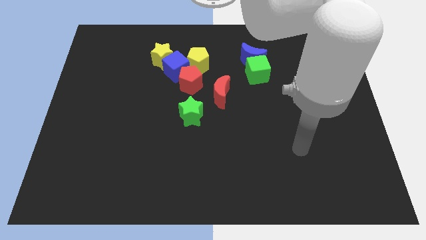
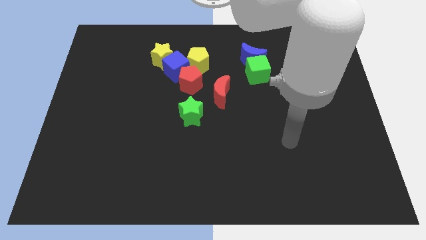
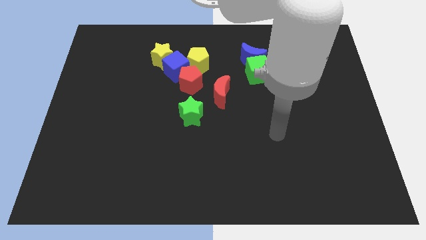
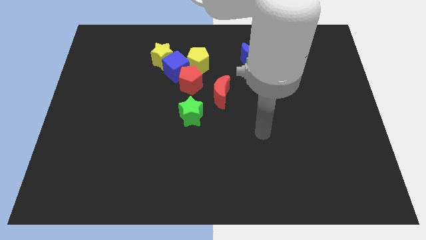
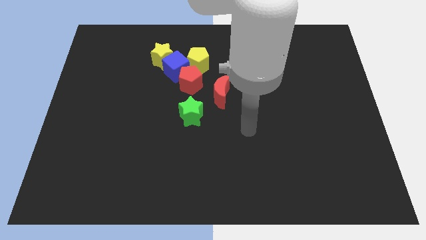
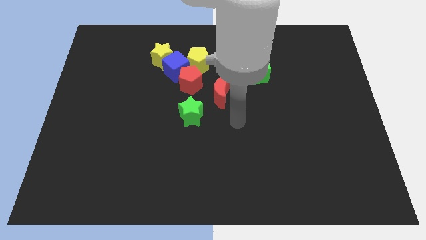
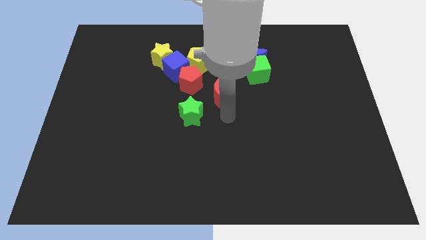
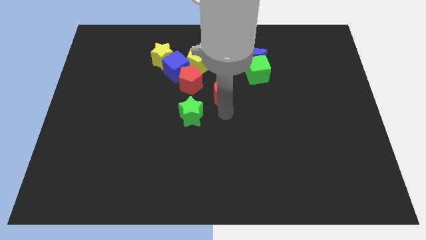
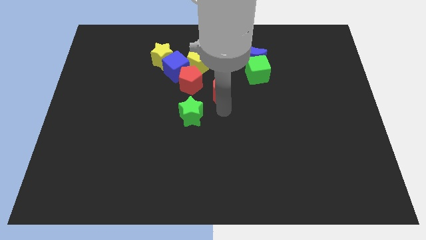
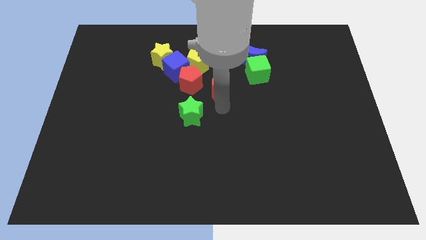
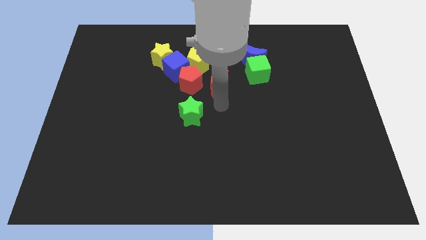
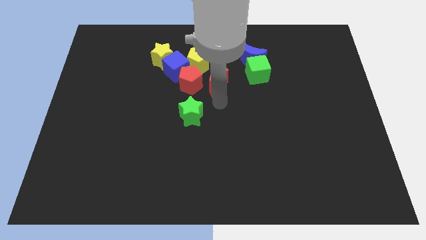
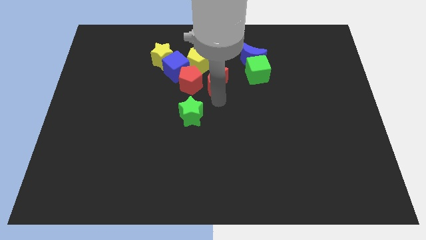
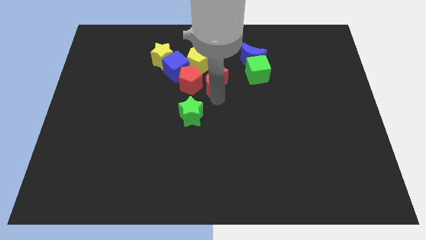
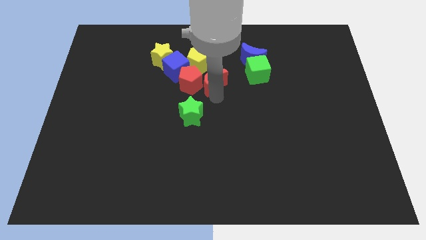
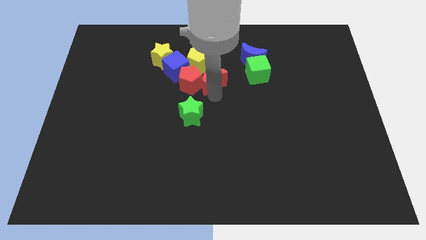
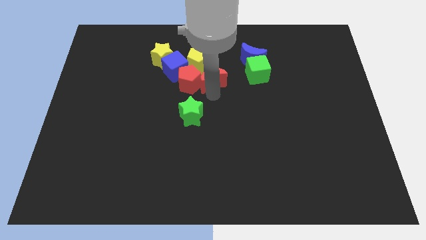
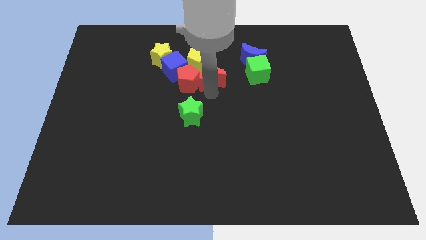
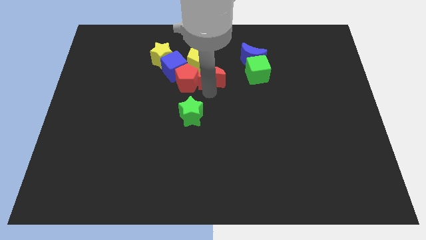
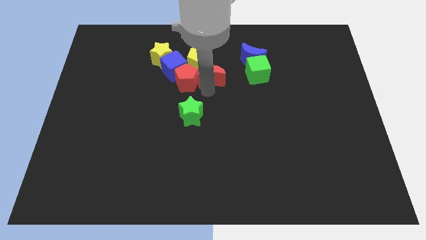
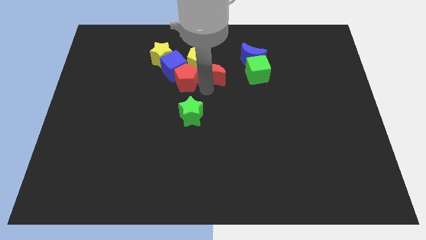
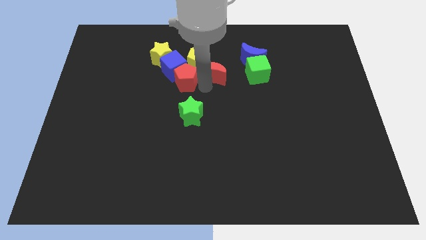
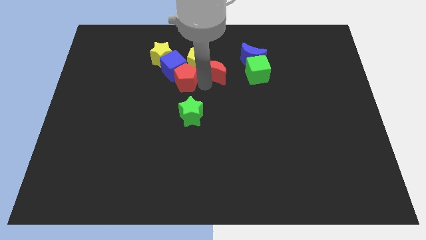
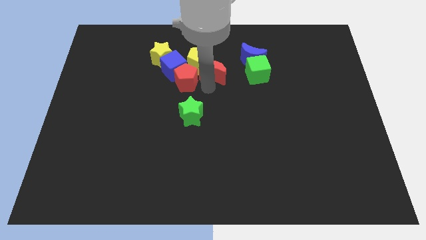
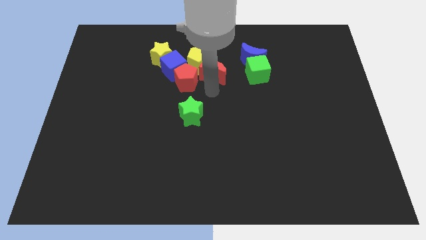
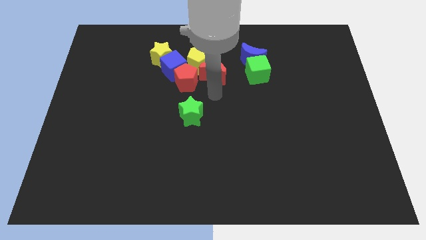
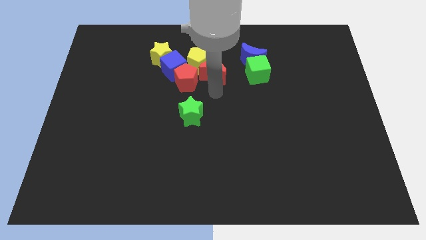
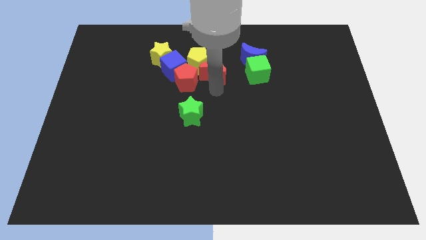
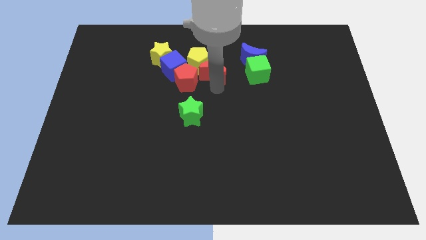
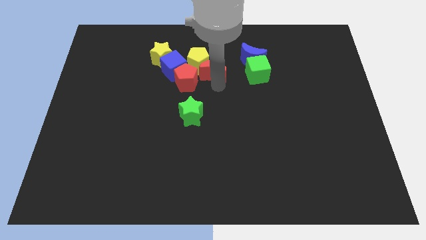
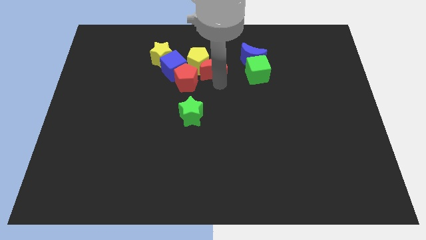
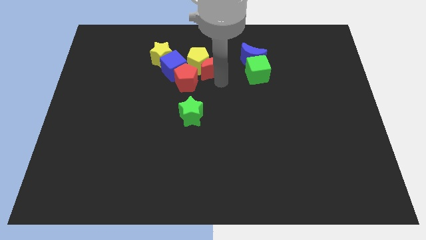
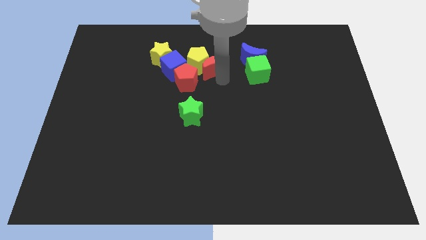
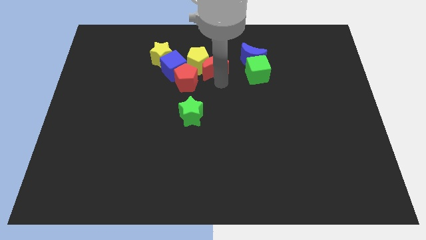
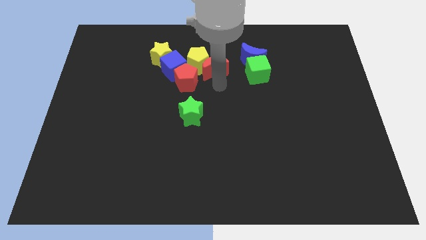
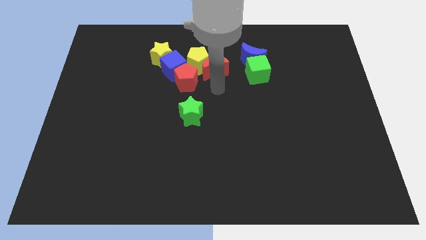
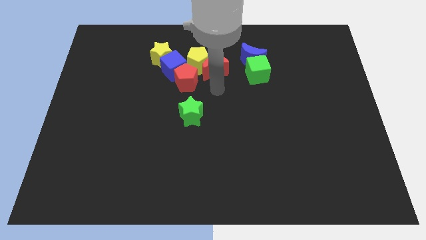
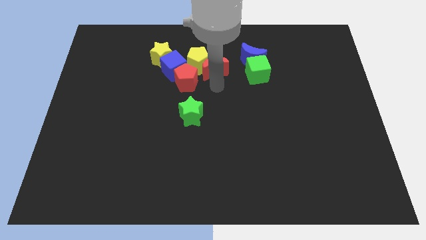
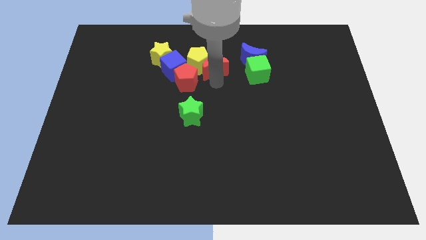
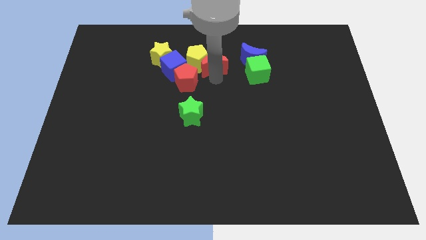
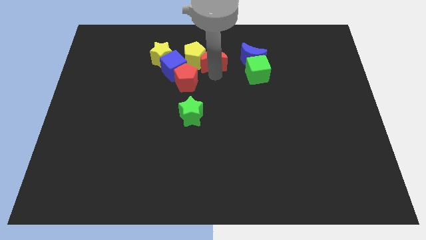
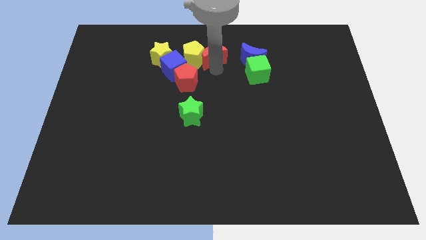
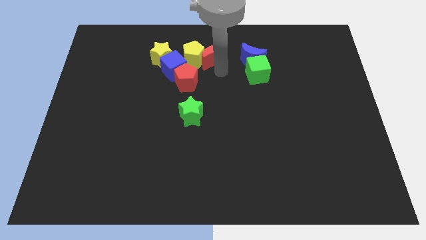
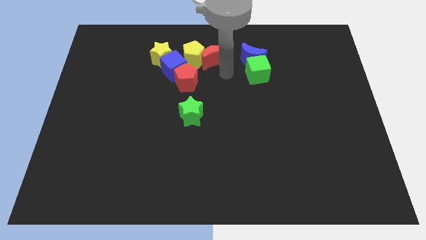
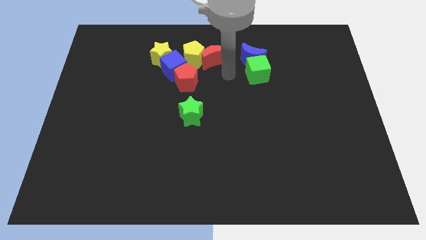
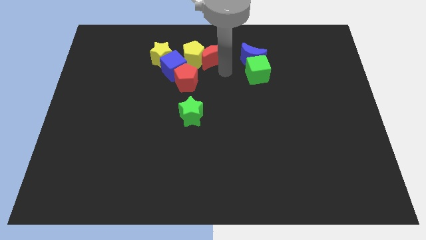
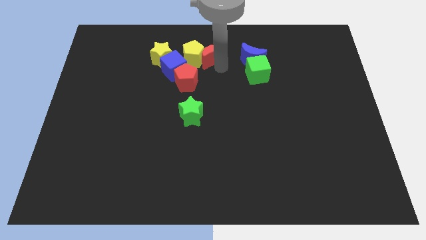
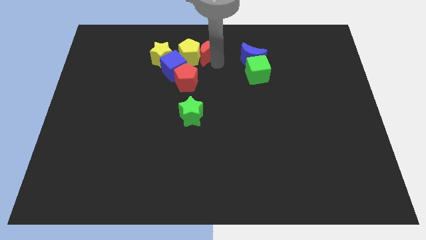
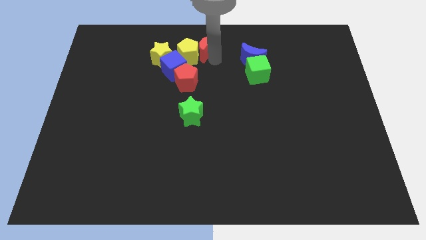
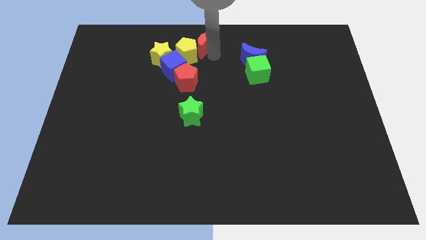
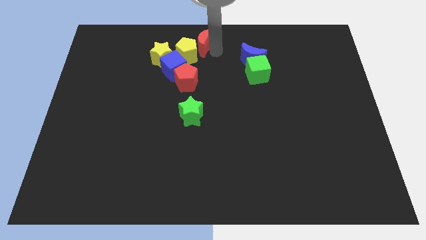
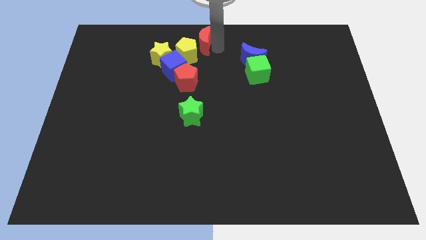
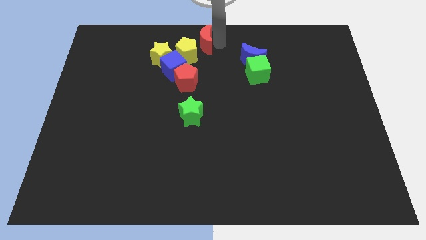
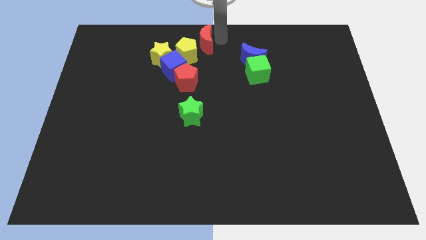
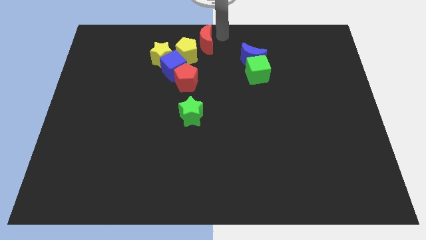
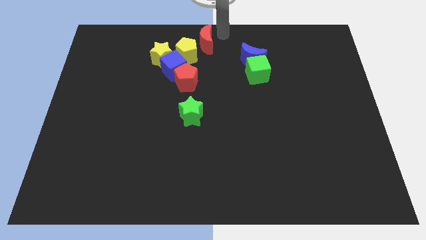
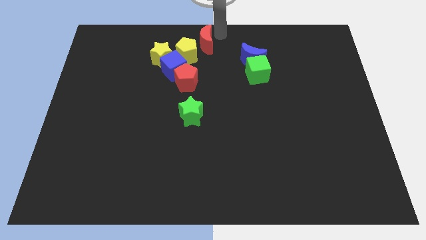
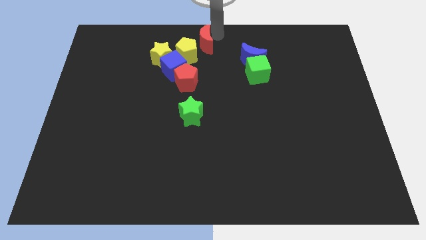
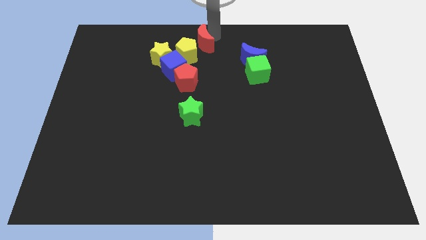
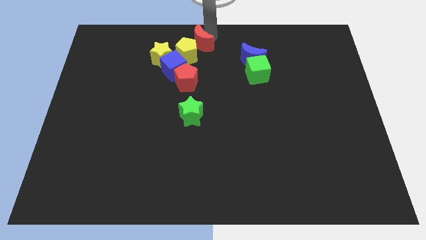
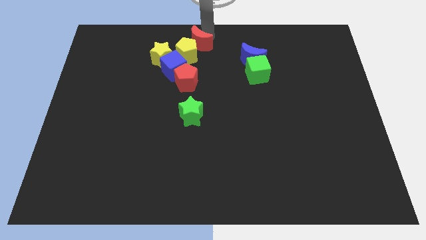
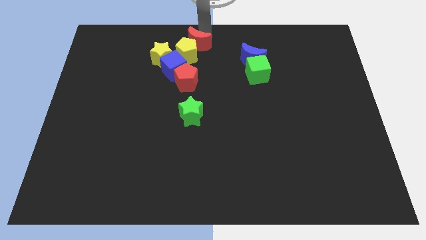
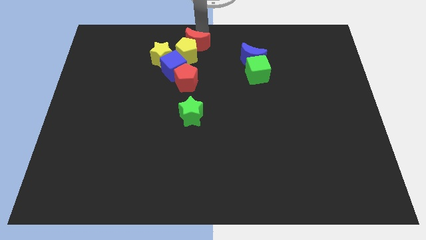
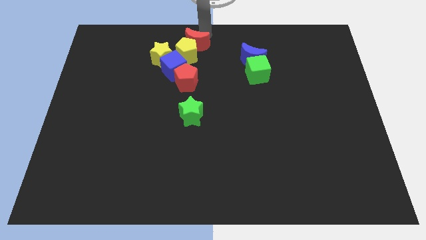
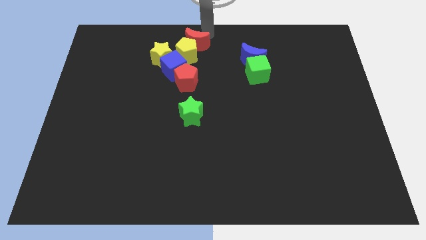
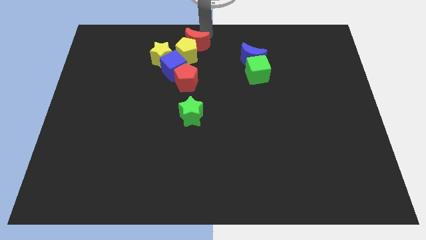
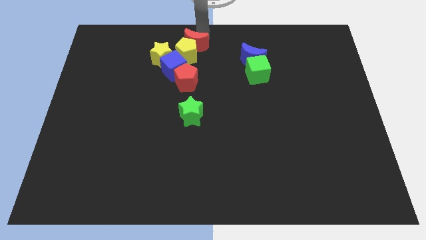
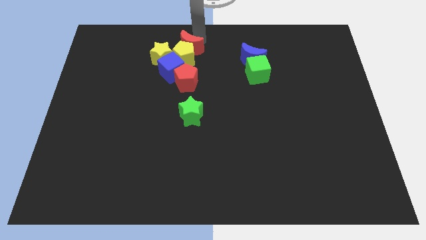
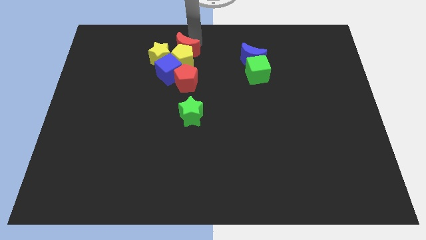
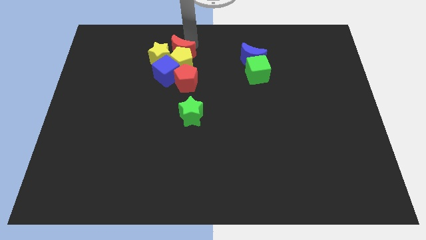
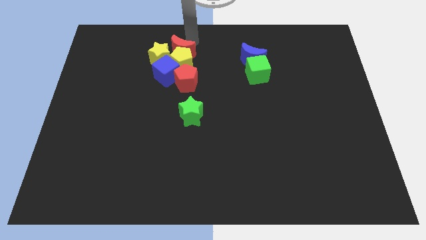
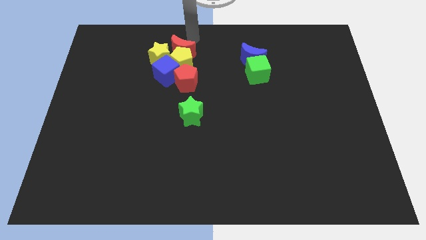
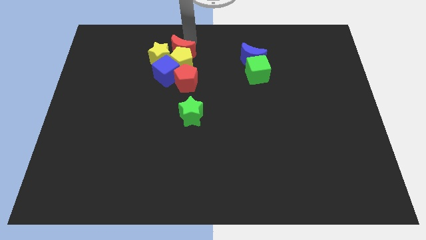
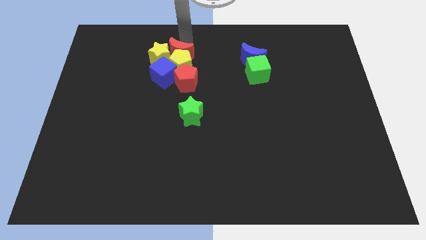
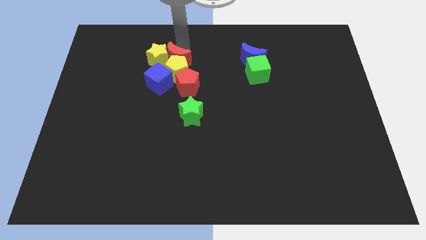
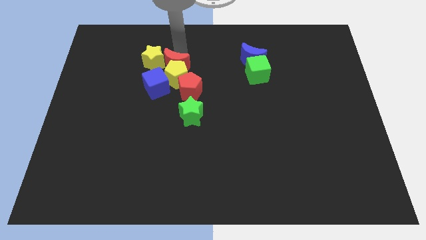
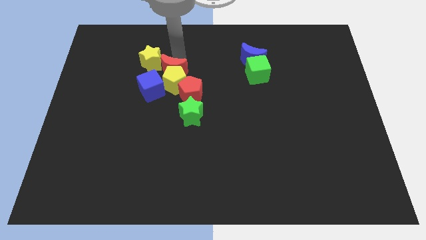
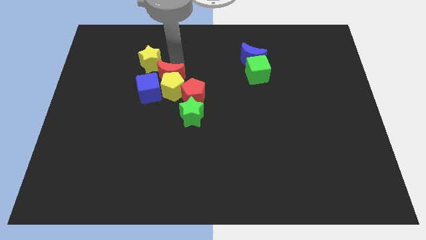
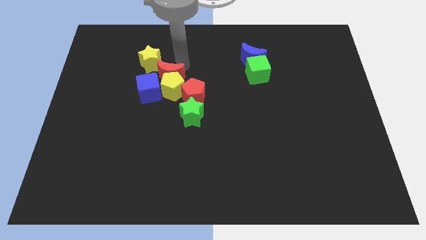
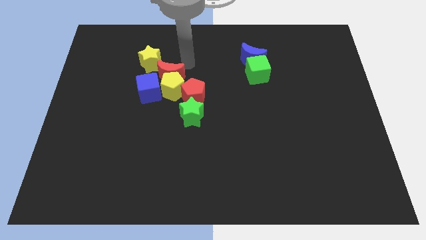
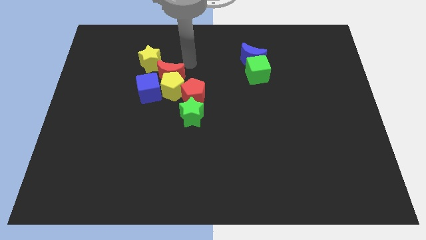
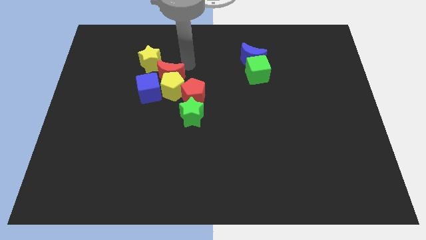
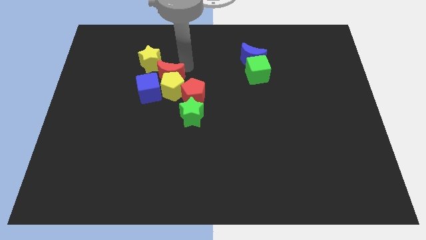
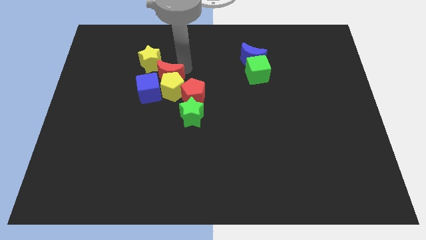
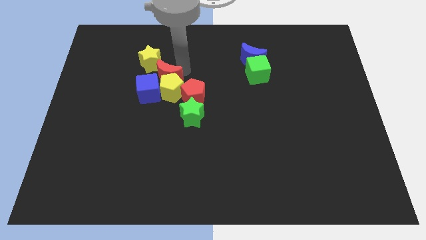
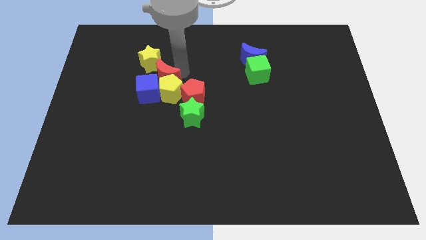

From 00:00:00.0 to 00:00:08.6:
push the red moon close to the blue cube
